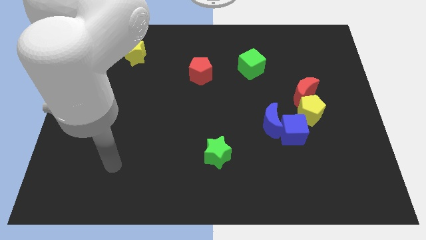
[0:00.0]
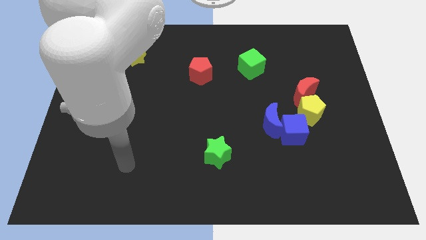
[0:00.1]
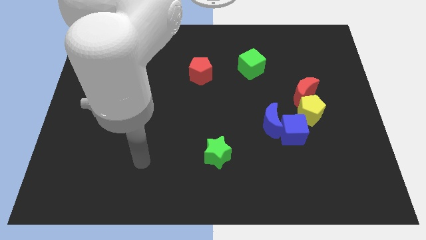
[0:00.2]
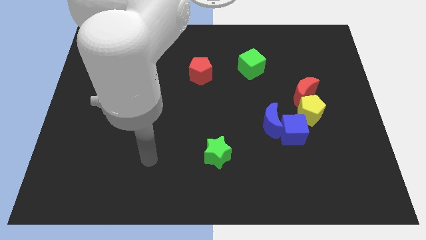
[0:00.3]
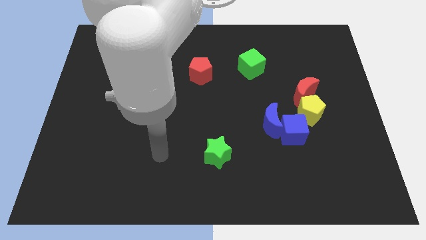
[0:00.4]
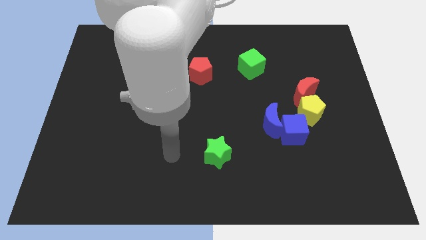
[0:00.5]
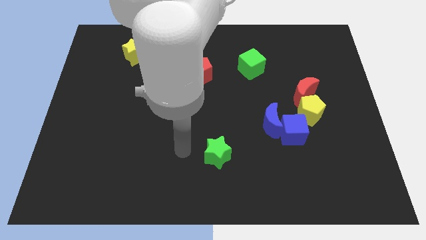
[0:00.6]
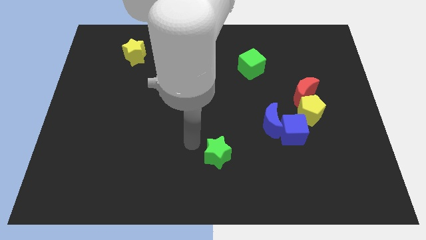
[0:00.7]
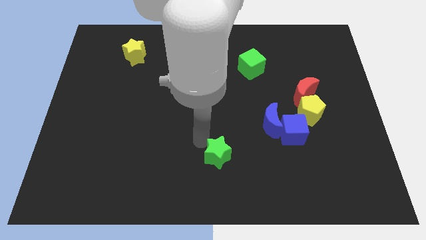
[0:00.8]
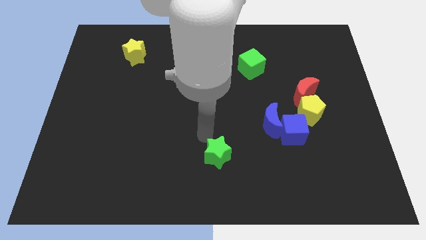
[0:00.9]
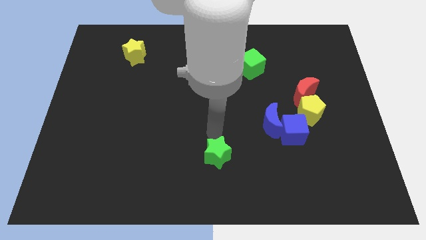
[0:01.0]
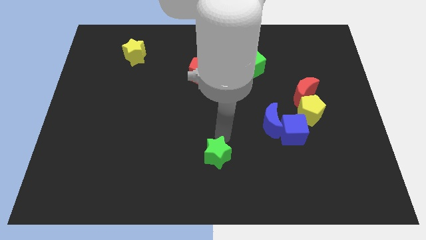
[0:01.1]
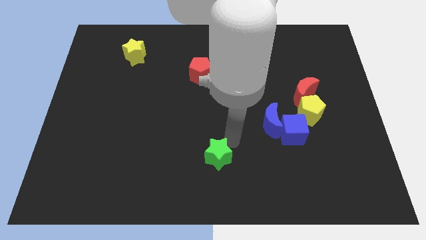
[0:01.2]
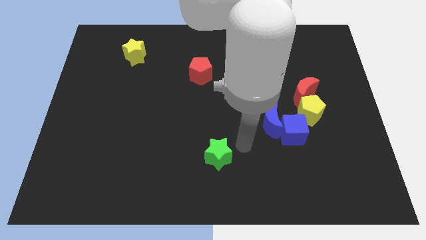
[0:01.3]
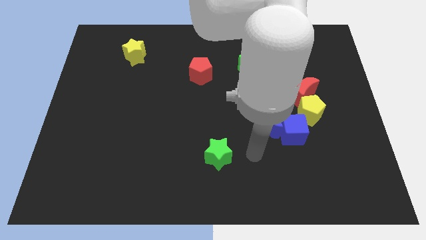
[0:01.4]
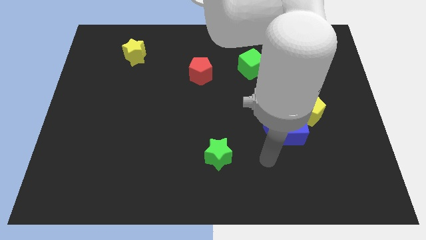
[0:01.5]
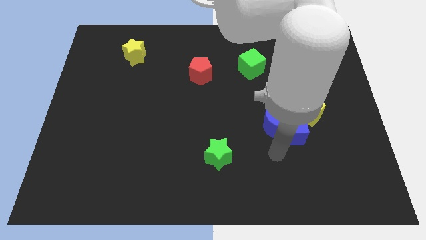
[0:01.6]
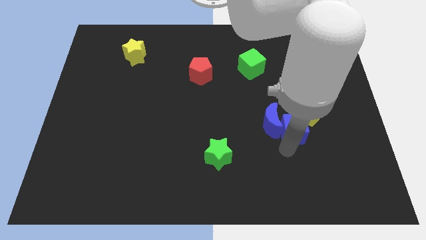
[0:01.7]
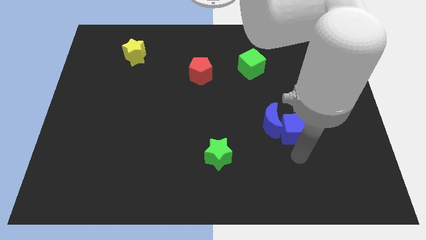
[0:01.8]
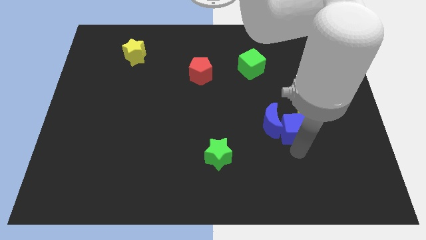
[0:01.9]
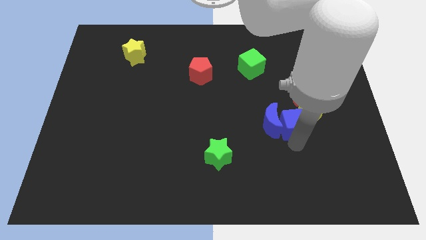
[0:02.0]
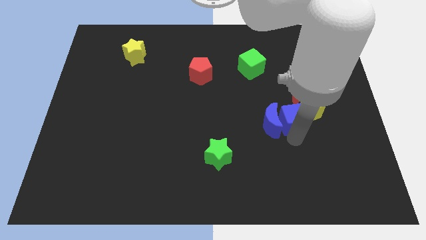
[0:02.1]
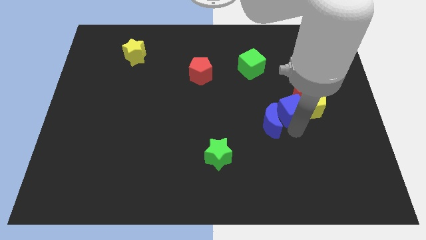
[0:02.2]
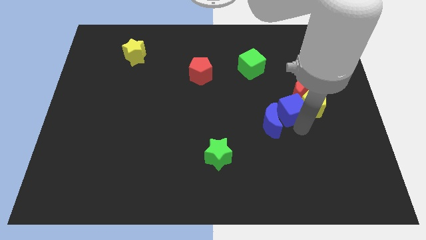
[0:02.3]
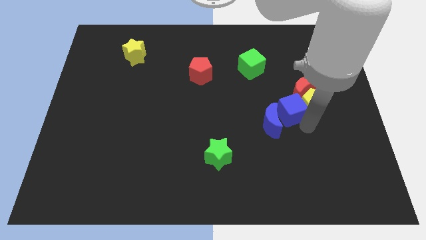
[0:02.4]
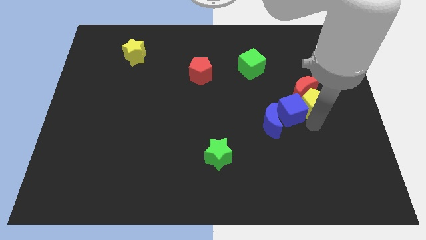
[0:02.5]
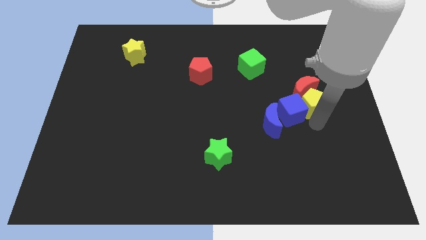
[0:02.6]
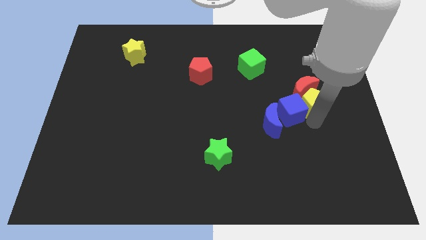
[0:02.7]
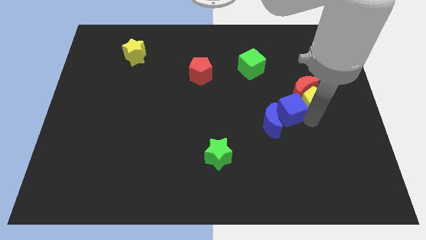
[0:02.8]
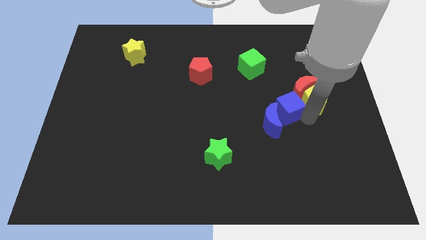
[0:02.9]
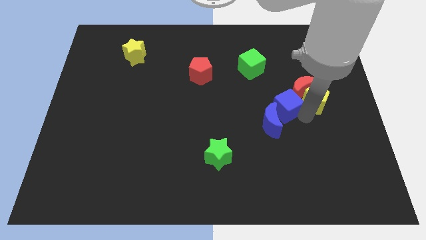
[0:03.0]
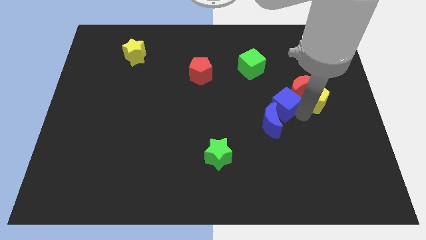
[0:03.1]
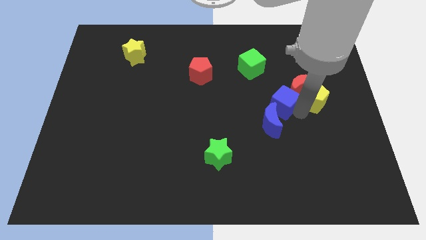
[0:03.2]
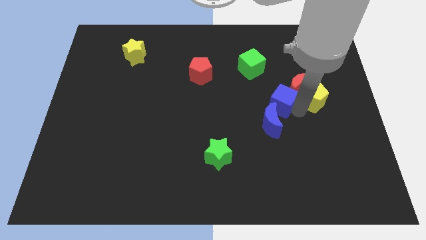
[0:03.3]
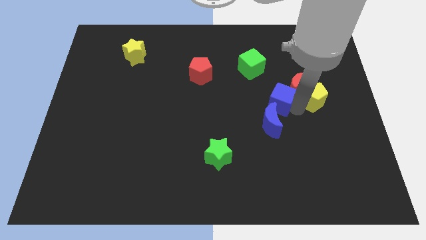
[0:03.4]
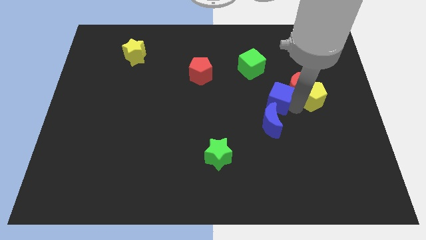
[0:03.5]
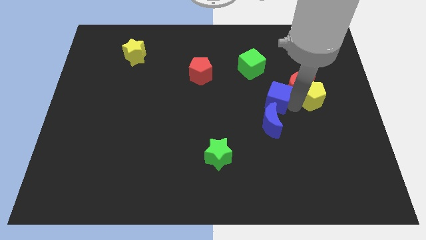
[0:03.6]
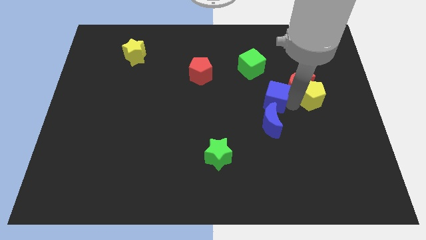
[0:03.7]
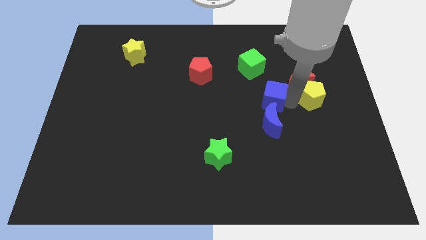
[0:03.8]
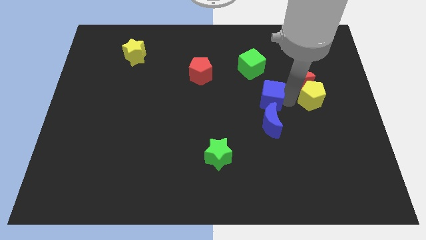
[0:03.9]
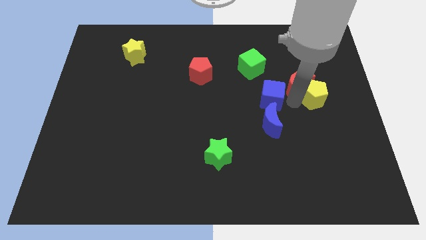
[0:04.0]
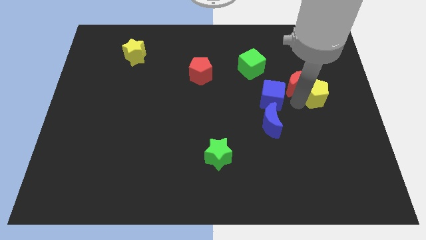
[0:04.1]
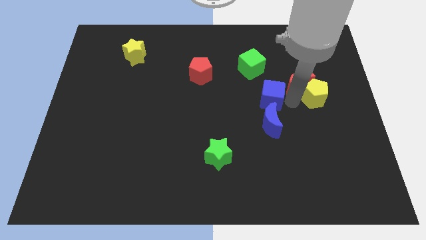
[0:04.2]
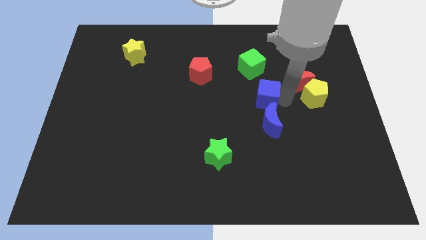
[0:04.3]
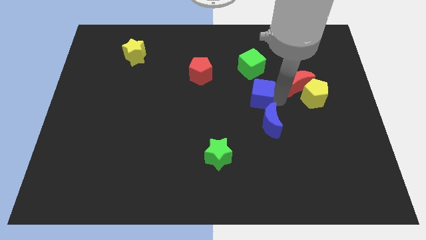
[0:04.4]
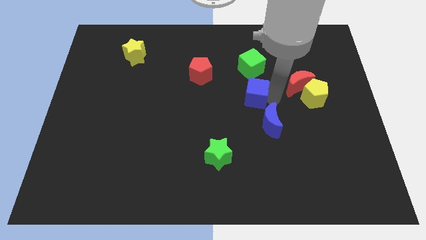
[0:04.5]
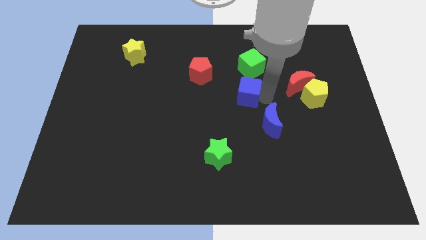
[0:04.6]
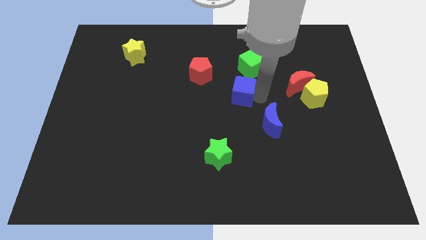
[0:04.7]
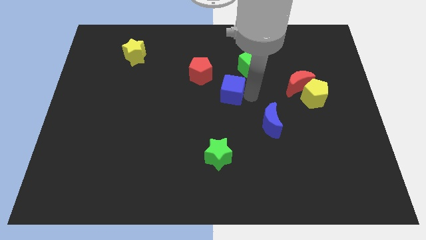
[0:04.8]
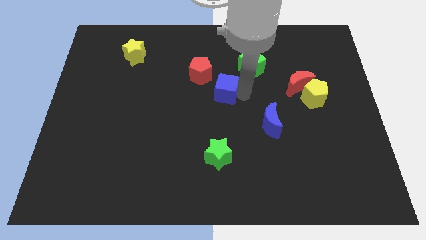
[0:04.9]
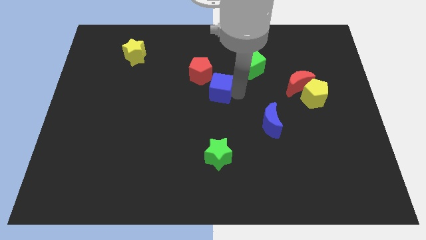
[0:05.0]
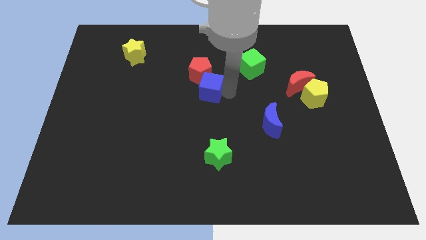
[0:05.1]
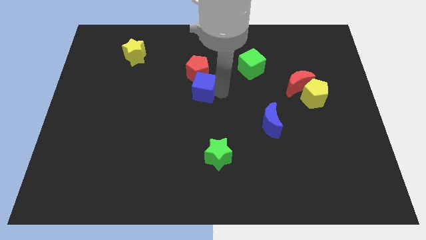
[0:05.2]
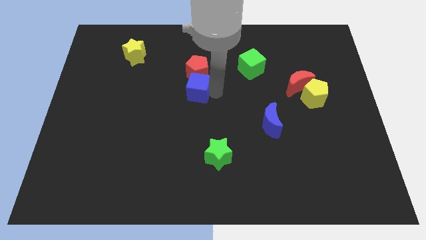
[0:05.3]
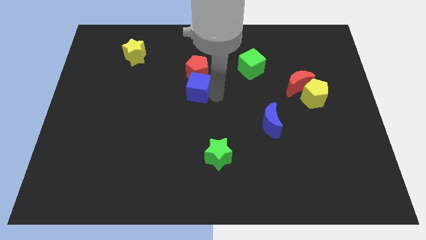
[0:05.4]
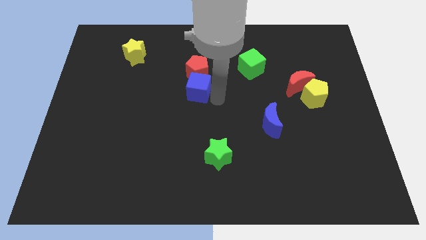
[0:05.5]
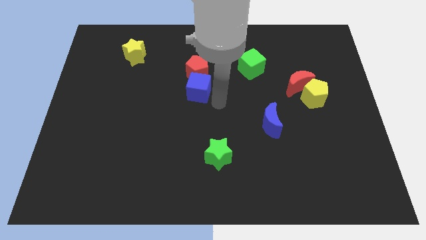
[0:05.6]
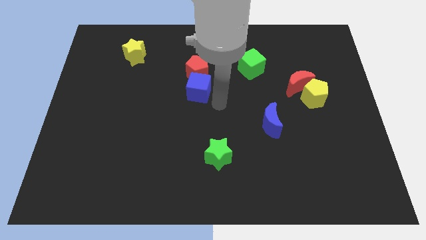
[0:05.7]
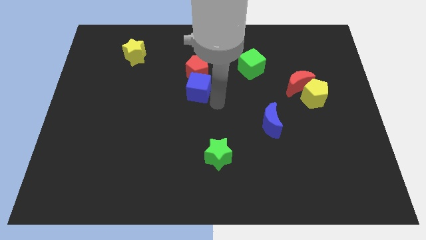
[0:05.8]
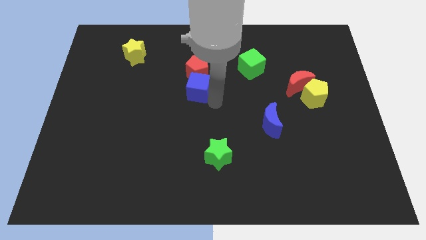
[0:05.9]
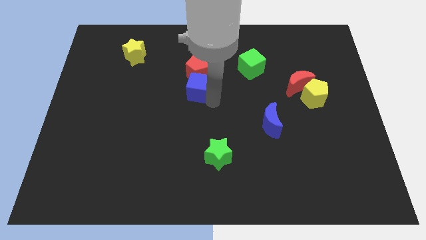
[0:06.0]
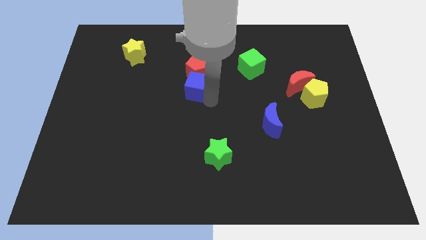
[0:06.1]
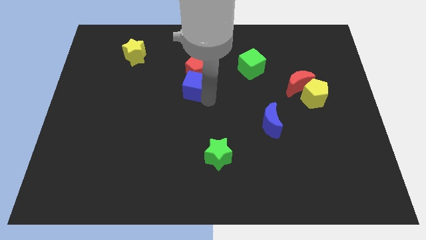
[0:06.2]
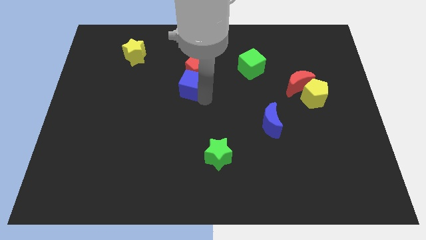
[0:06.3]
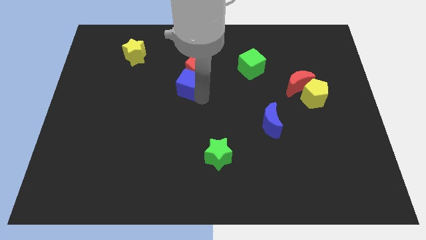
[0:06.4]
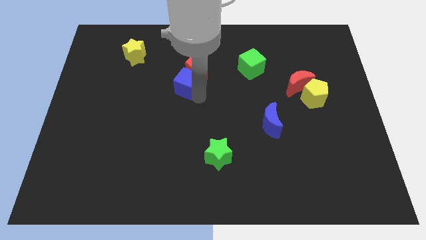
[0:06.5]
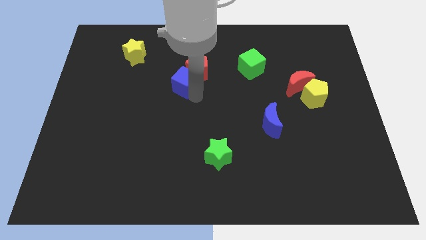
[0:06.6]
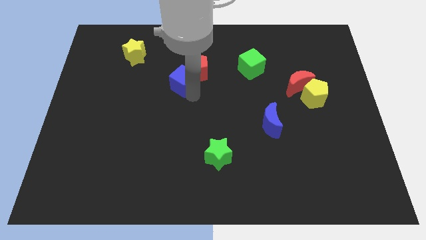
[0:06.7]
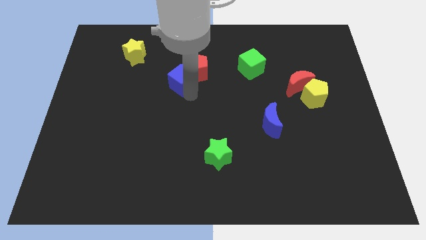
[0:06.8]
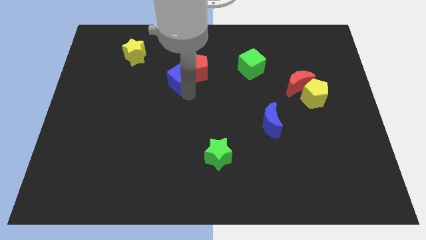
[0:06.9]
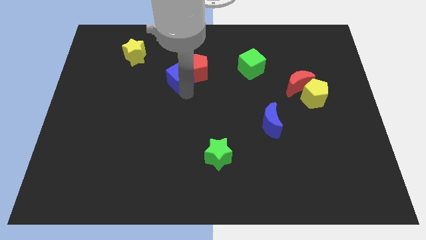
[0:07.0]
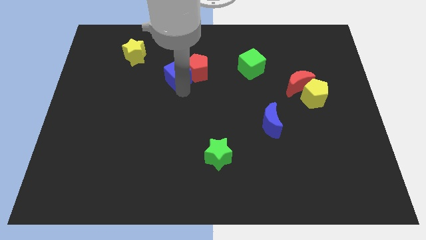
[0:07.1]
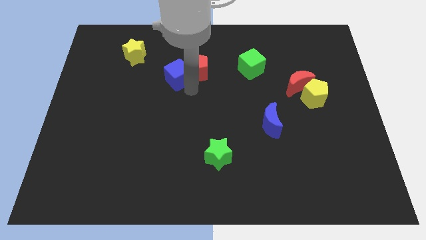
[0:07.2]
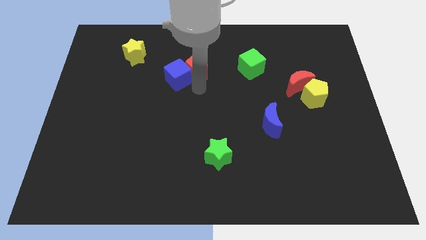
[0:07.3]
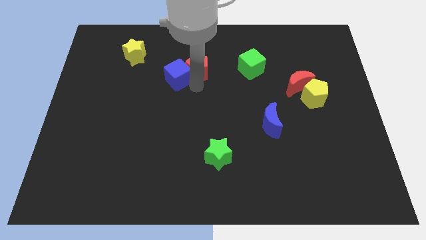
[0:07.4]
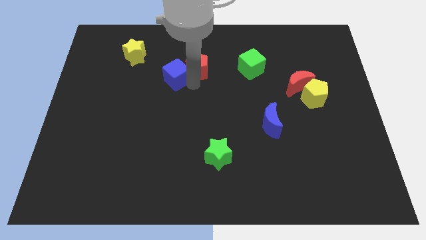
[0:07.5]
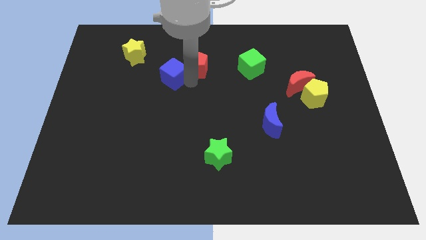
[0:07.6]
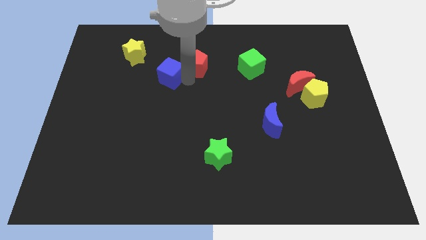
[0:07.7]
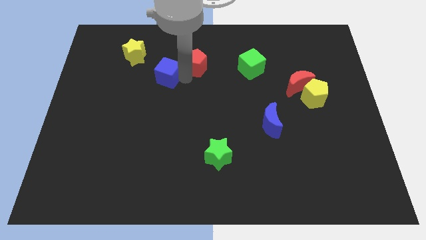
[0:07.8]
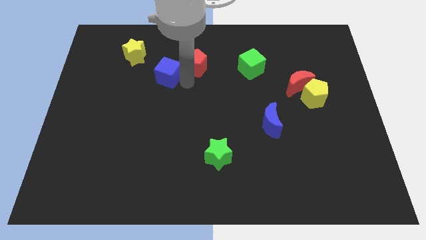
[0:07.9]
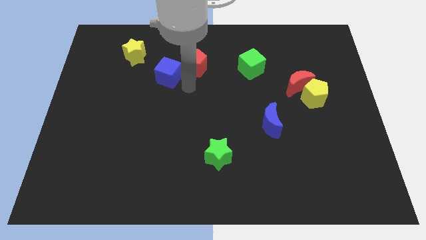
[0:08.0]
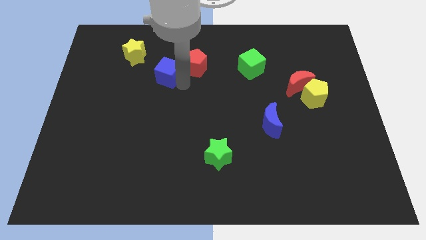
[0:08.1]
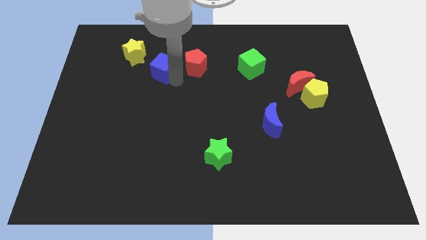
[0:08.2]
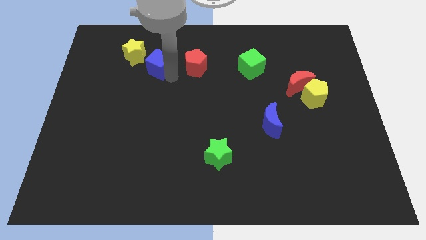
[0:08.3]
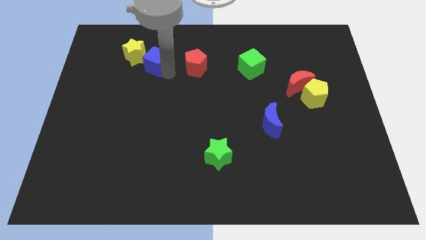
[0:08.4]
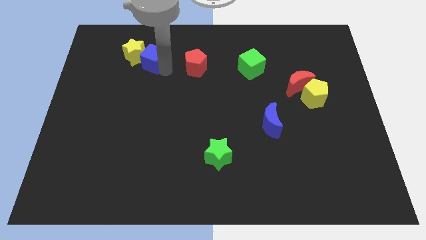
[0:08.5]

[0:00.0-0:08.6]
move the blue cube close to the yellow star
